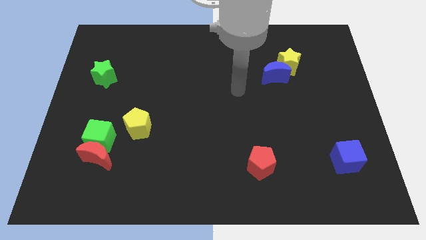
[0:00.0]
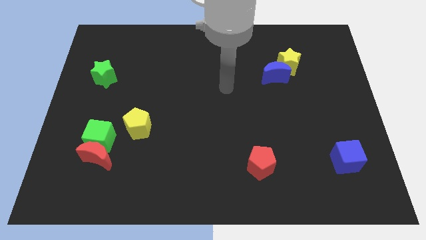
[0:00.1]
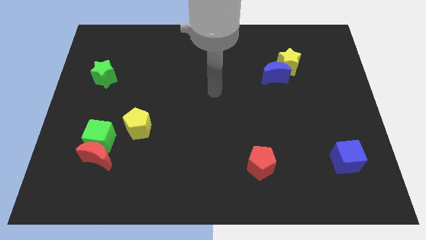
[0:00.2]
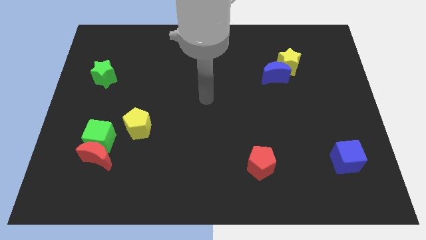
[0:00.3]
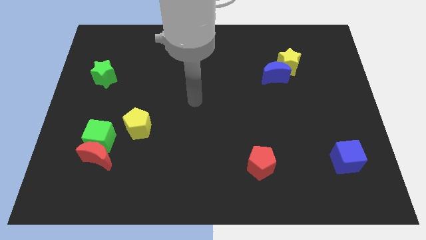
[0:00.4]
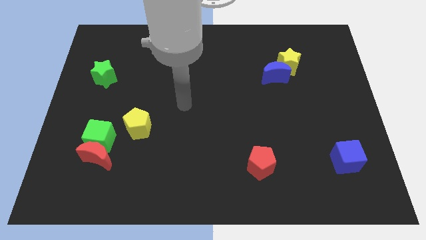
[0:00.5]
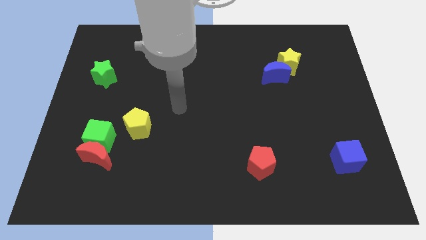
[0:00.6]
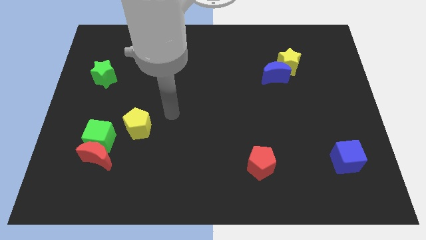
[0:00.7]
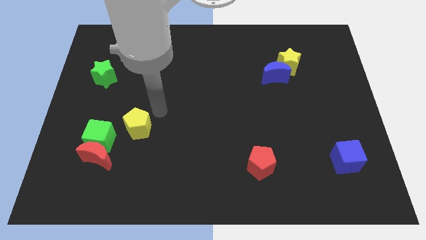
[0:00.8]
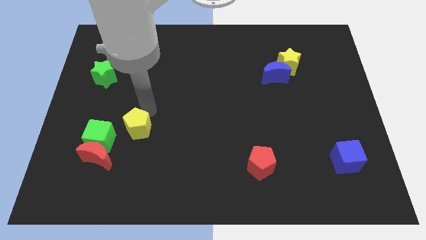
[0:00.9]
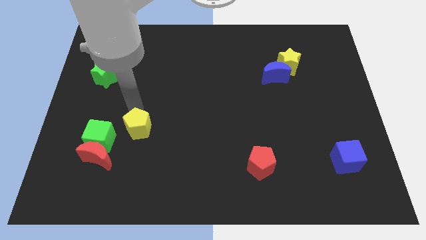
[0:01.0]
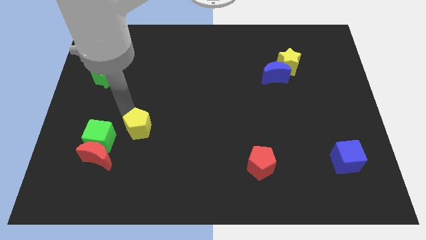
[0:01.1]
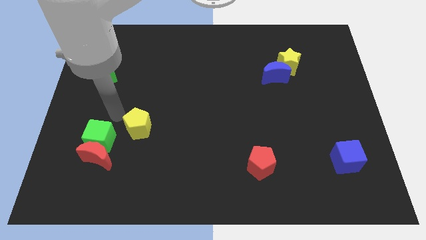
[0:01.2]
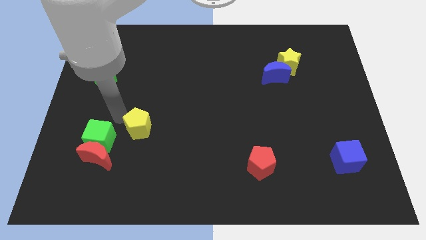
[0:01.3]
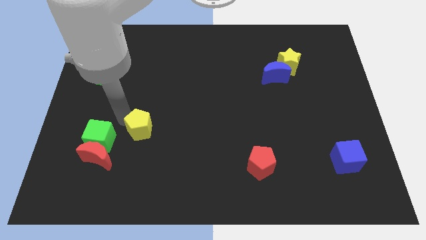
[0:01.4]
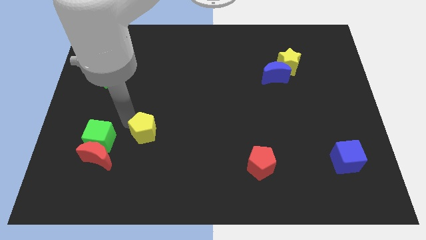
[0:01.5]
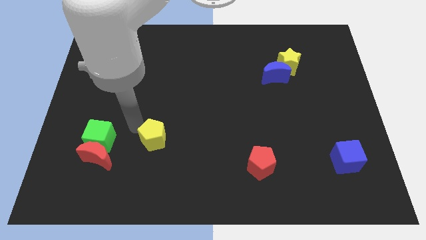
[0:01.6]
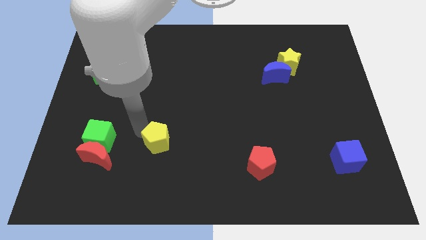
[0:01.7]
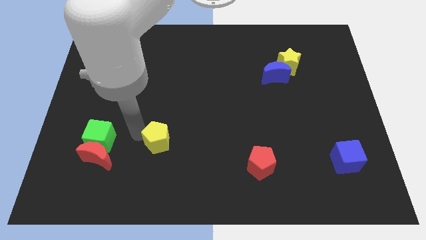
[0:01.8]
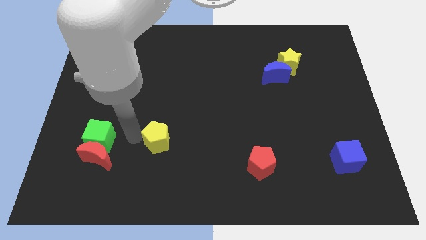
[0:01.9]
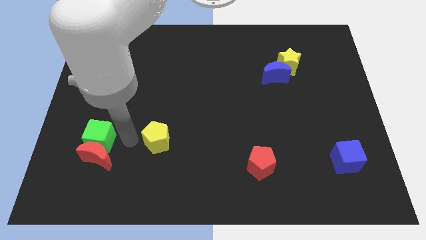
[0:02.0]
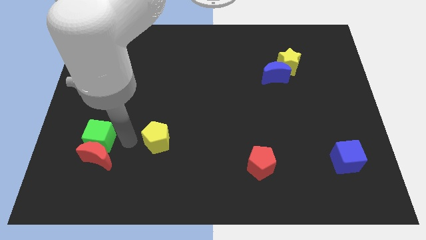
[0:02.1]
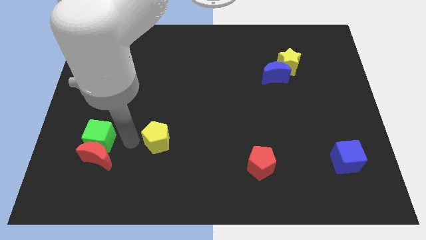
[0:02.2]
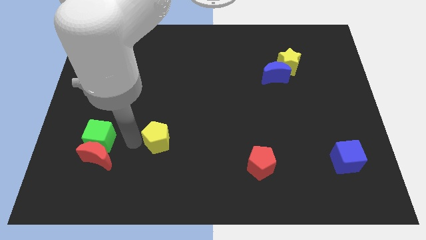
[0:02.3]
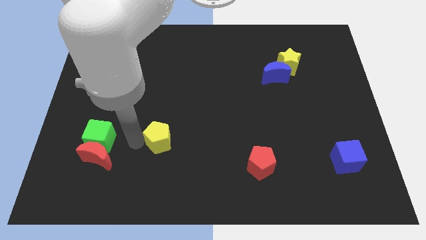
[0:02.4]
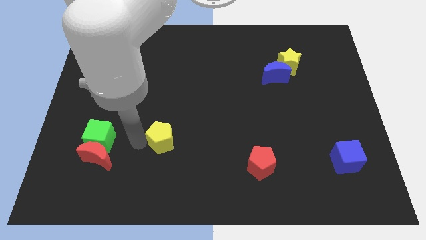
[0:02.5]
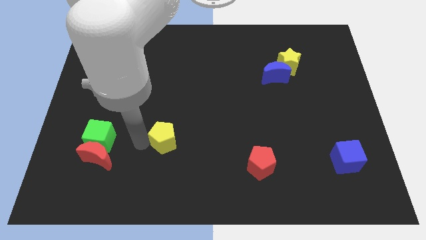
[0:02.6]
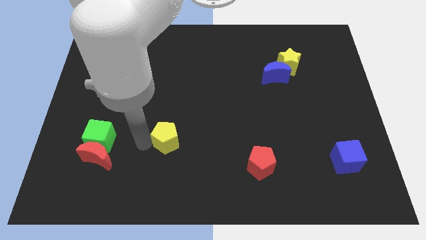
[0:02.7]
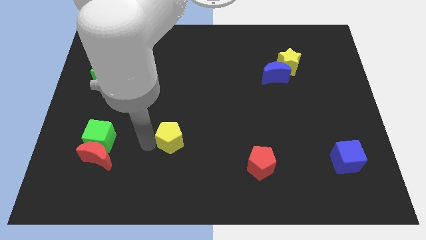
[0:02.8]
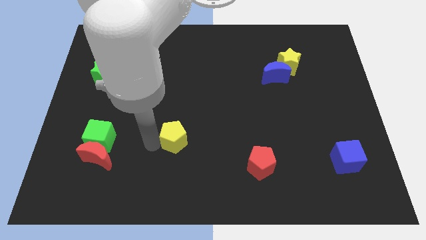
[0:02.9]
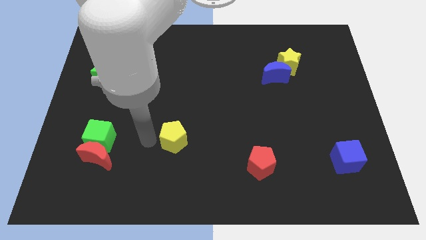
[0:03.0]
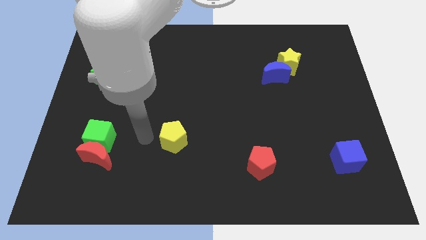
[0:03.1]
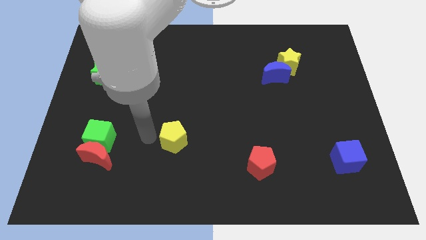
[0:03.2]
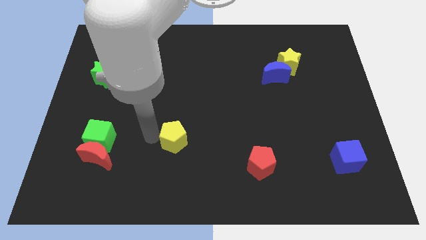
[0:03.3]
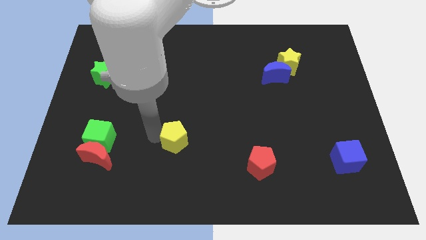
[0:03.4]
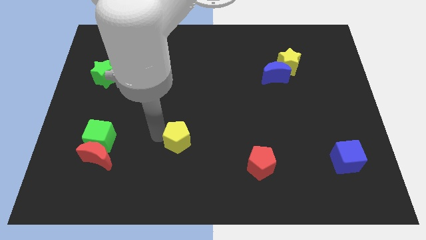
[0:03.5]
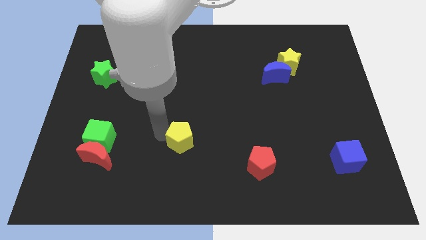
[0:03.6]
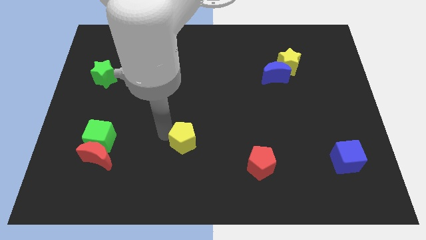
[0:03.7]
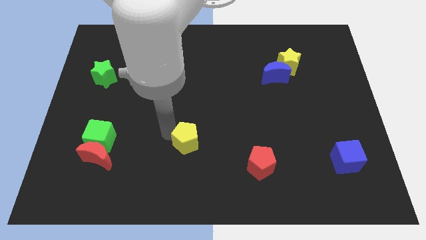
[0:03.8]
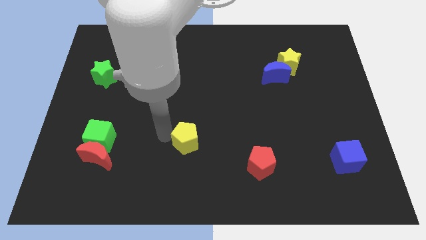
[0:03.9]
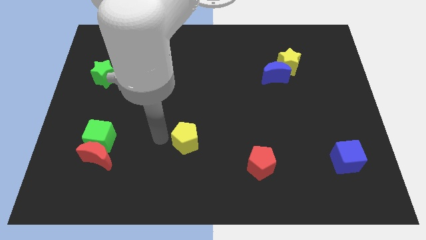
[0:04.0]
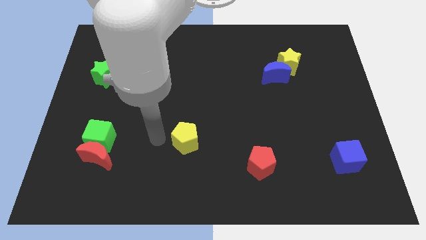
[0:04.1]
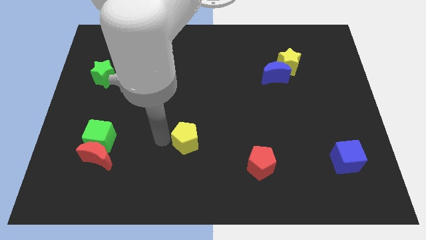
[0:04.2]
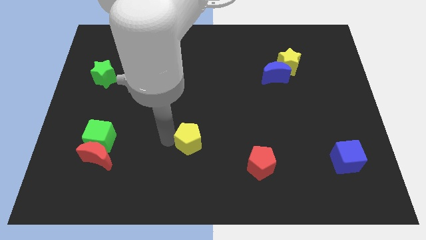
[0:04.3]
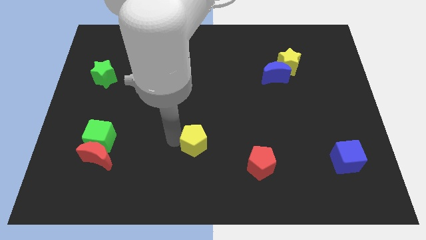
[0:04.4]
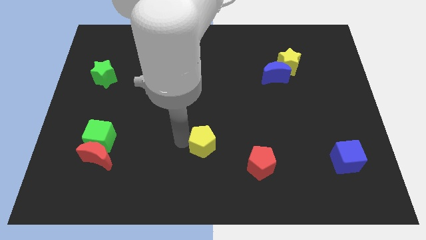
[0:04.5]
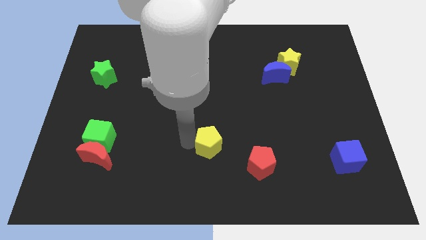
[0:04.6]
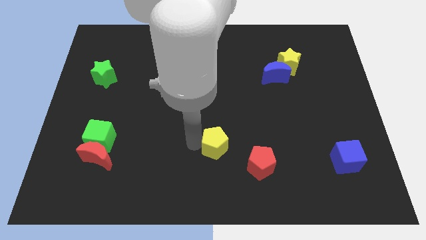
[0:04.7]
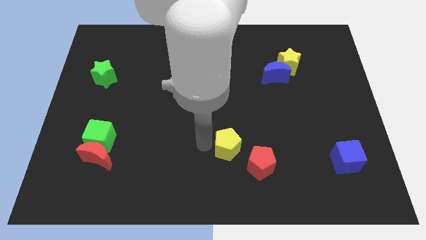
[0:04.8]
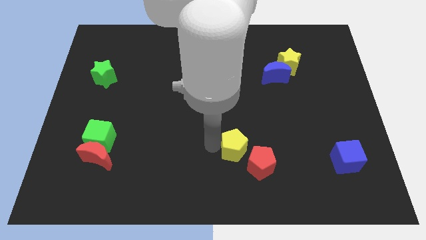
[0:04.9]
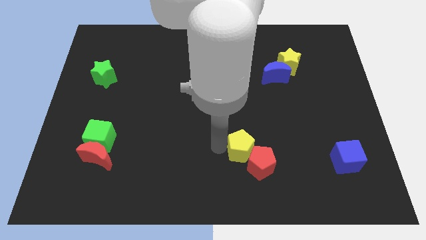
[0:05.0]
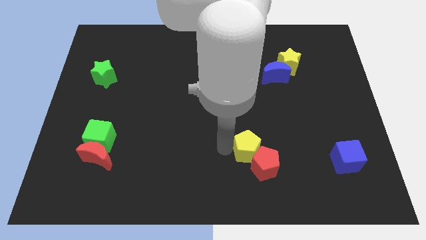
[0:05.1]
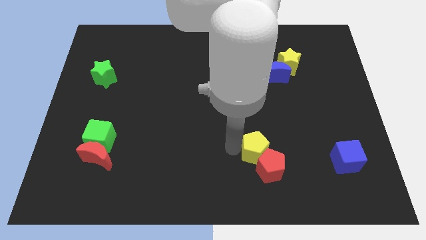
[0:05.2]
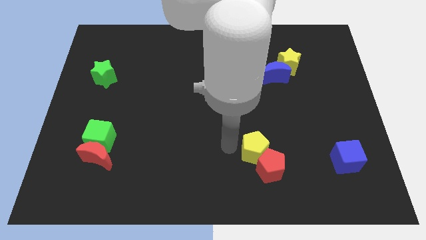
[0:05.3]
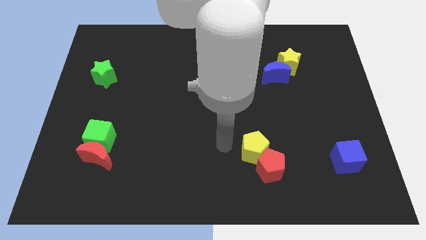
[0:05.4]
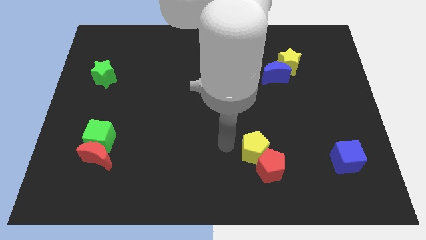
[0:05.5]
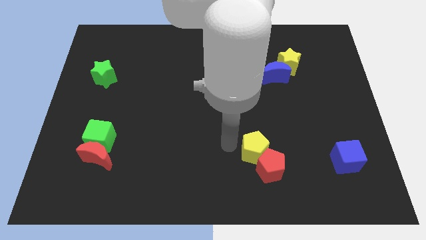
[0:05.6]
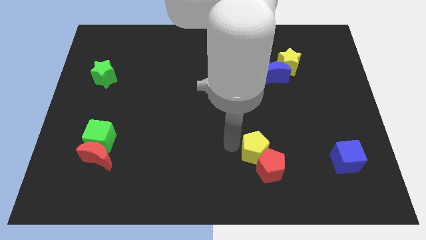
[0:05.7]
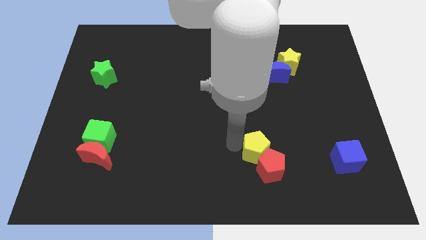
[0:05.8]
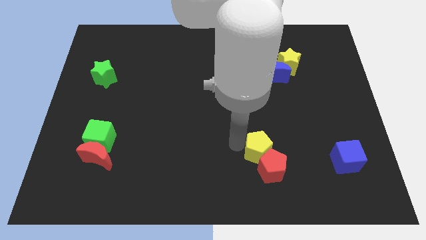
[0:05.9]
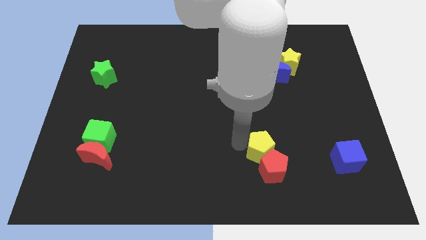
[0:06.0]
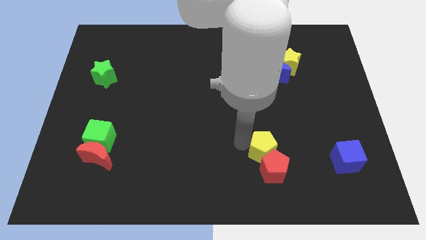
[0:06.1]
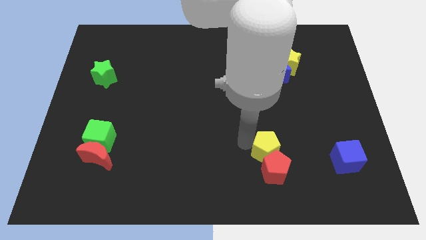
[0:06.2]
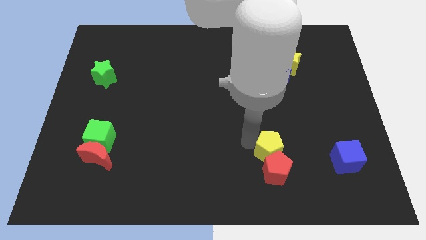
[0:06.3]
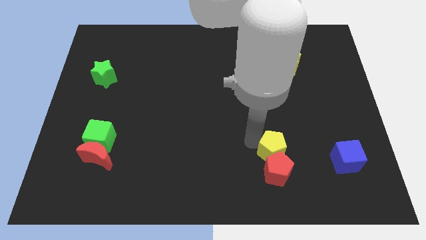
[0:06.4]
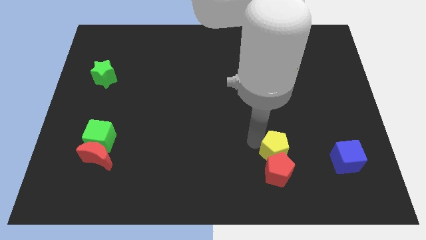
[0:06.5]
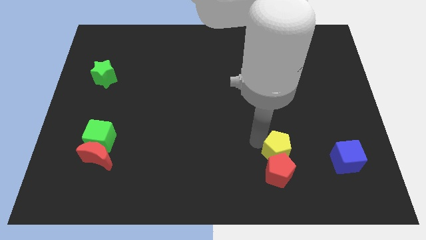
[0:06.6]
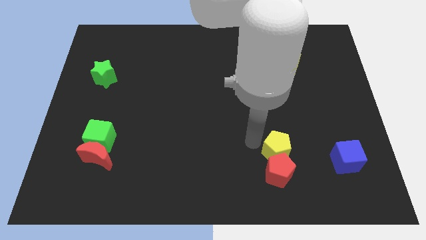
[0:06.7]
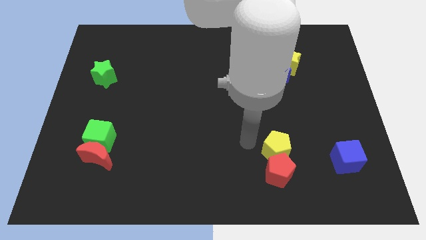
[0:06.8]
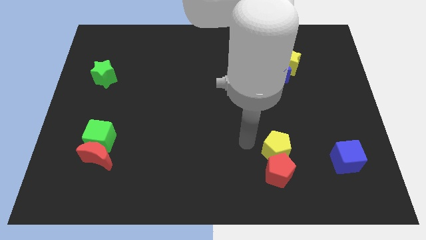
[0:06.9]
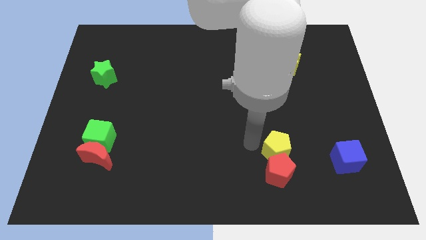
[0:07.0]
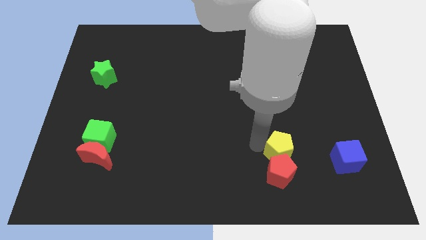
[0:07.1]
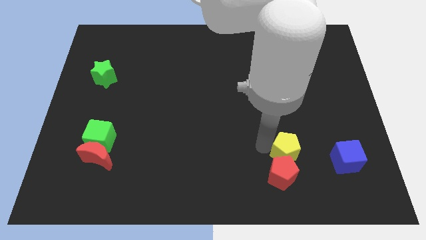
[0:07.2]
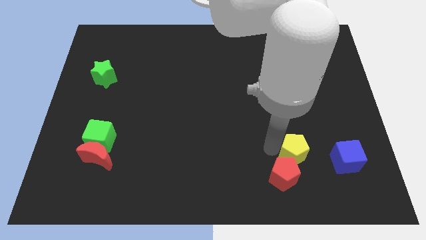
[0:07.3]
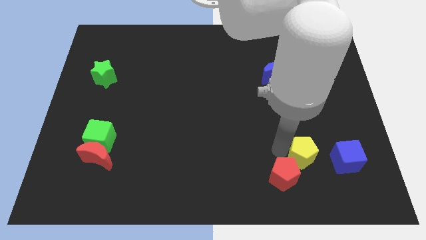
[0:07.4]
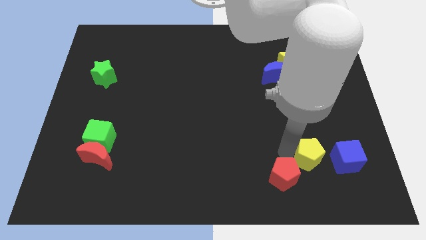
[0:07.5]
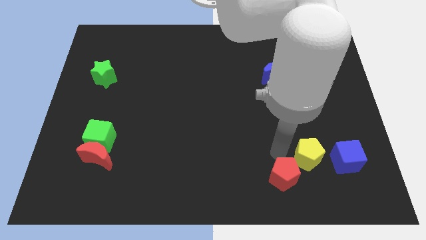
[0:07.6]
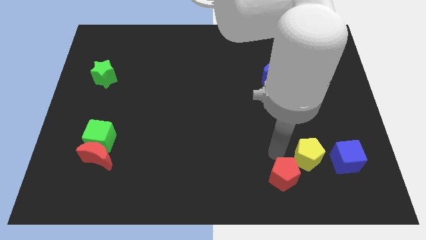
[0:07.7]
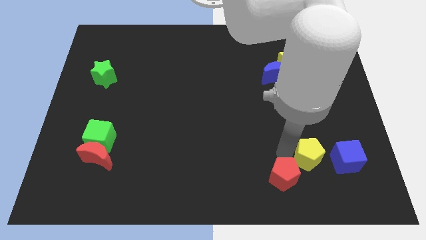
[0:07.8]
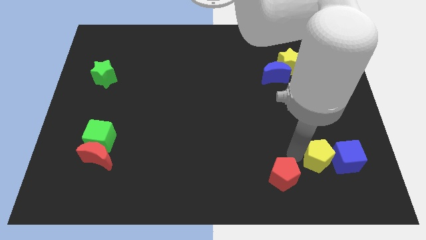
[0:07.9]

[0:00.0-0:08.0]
slide the yellow pentagon close to the blue cube
